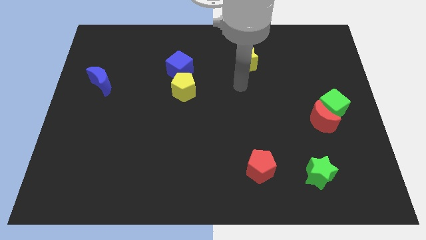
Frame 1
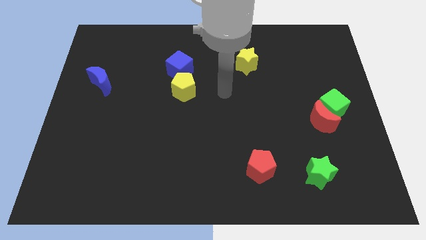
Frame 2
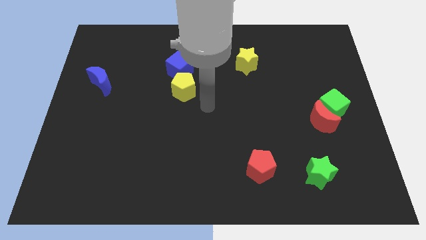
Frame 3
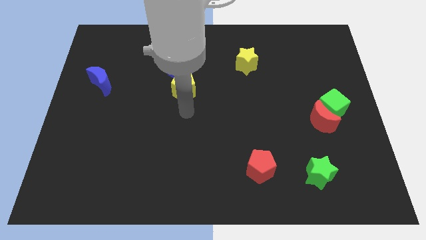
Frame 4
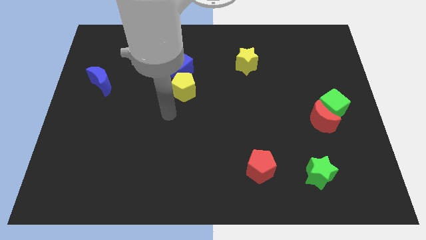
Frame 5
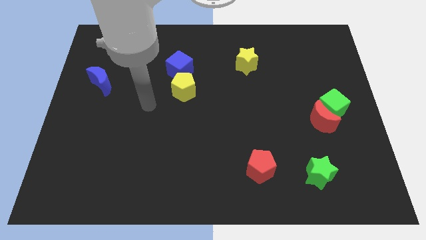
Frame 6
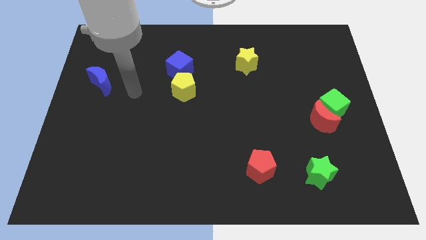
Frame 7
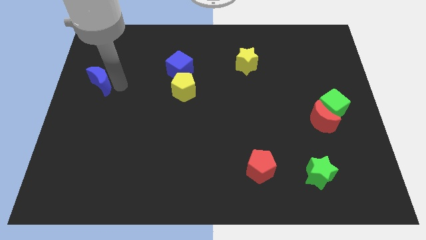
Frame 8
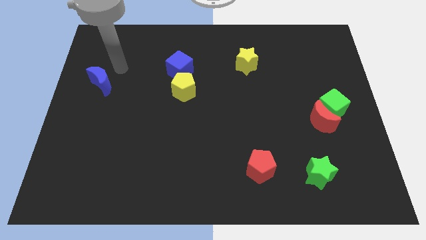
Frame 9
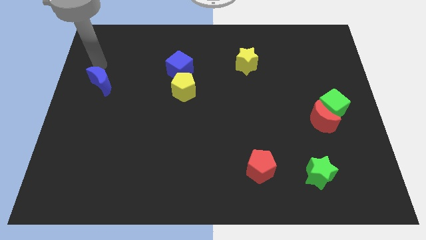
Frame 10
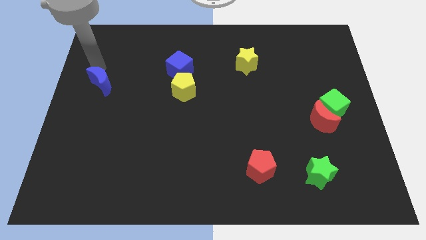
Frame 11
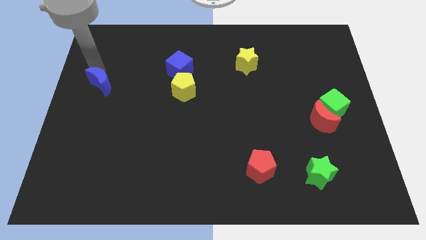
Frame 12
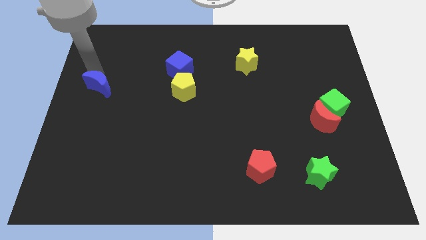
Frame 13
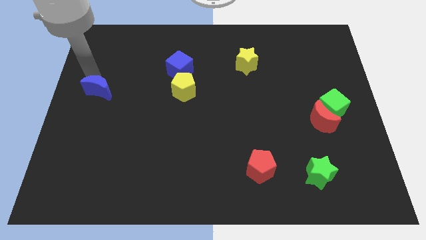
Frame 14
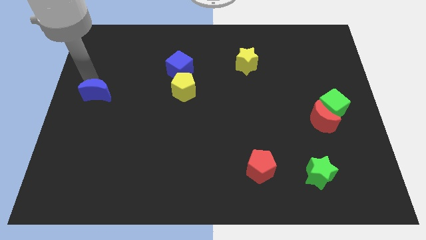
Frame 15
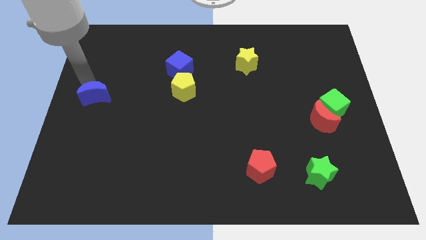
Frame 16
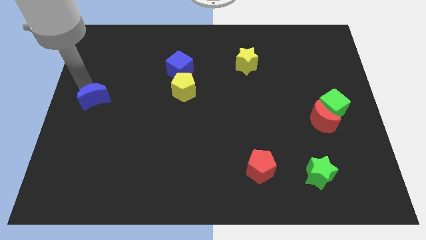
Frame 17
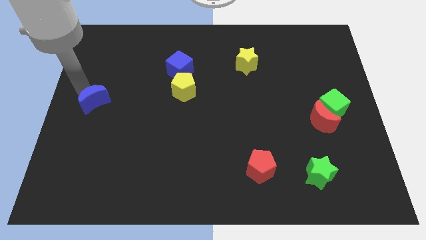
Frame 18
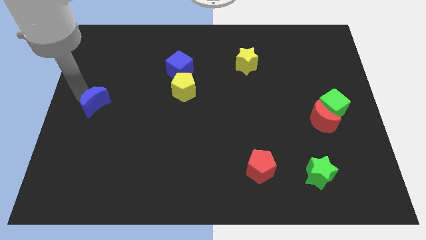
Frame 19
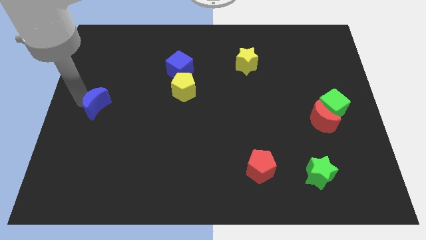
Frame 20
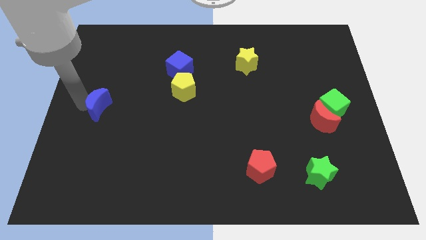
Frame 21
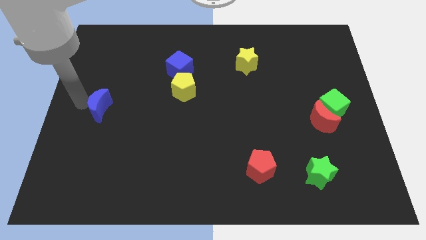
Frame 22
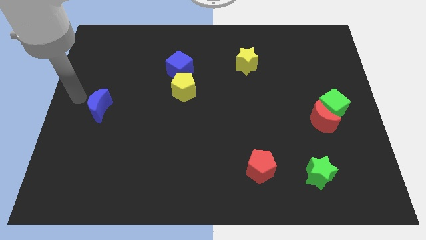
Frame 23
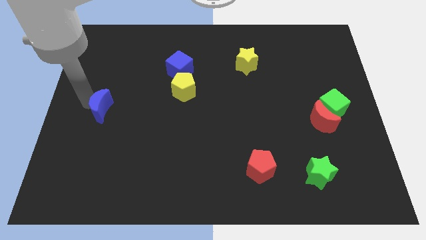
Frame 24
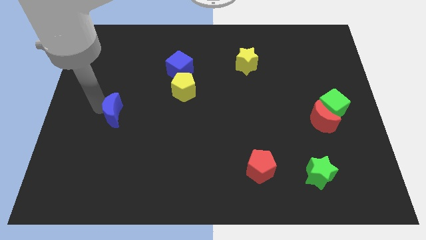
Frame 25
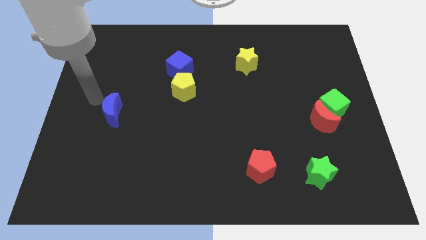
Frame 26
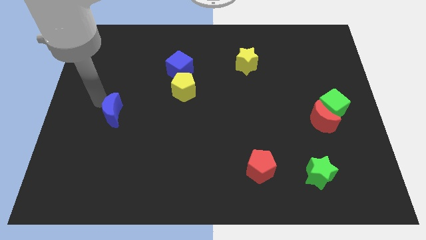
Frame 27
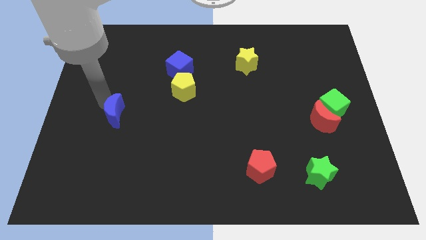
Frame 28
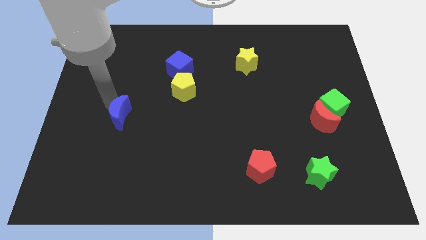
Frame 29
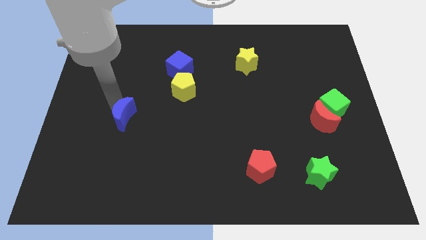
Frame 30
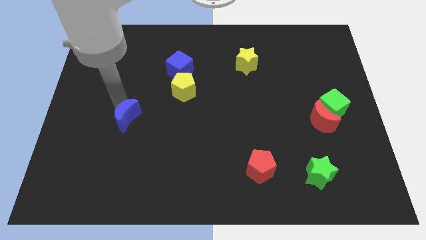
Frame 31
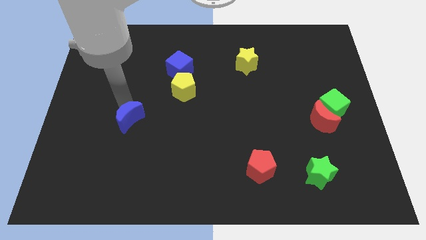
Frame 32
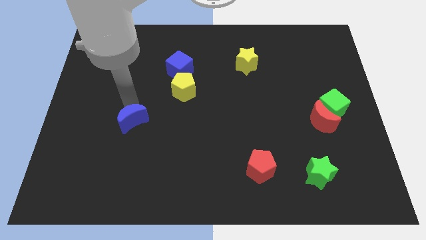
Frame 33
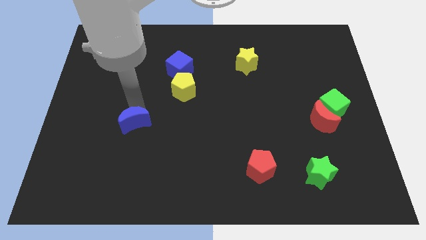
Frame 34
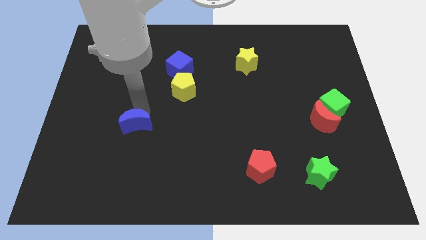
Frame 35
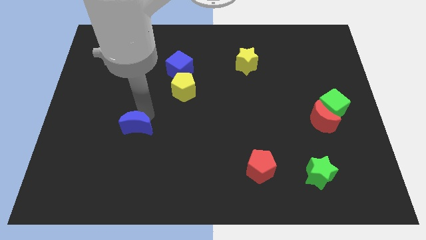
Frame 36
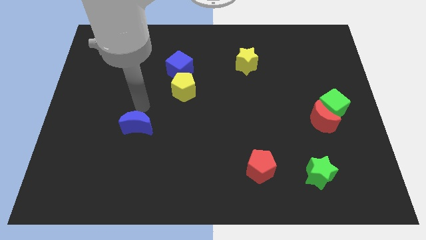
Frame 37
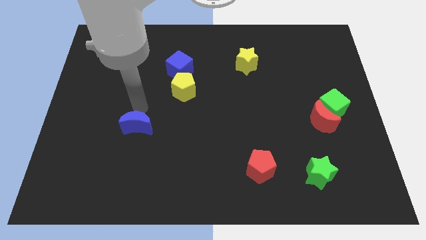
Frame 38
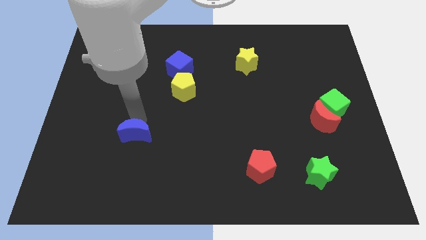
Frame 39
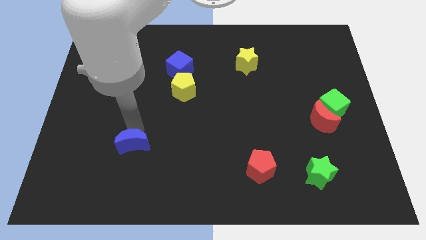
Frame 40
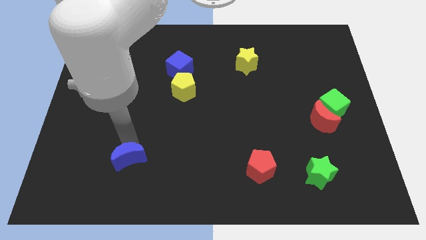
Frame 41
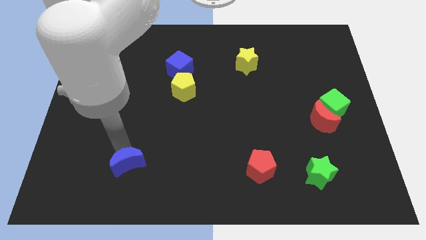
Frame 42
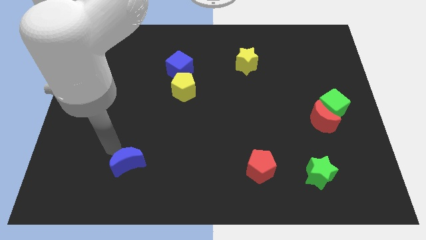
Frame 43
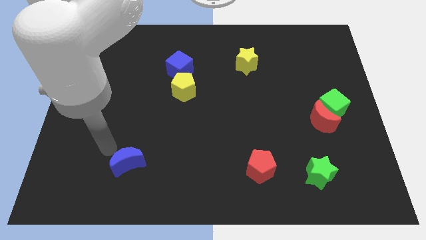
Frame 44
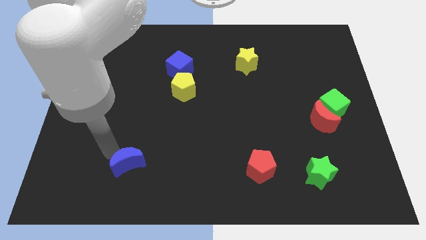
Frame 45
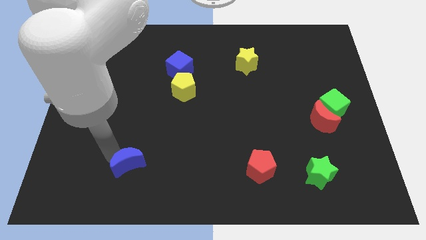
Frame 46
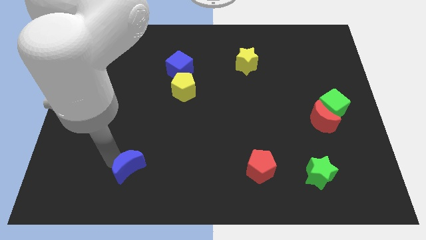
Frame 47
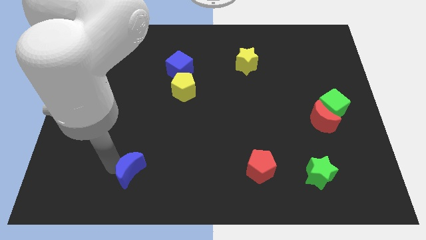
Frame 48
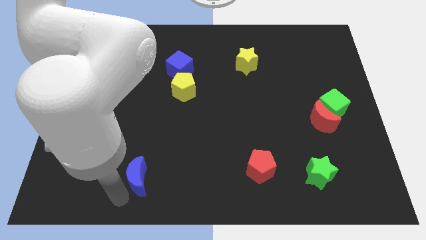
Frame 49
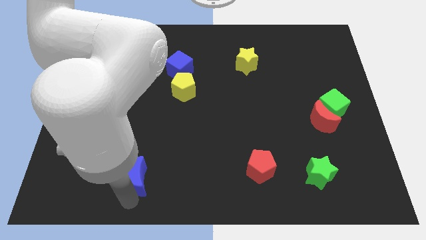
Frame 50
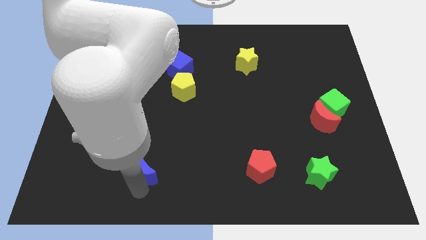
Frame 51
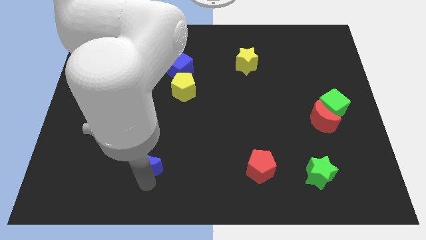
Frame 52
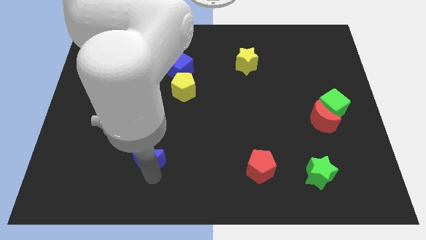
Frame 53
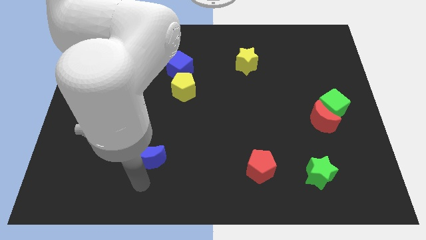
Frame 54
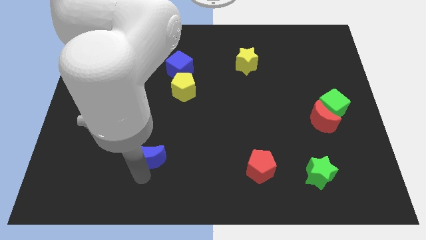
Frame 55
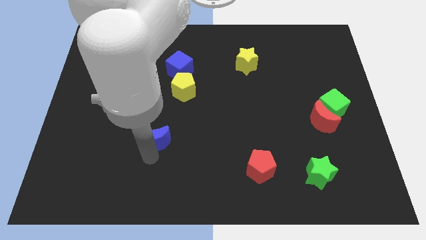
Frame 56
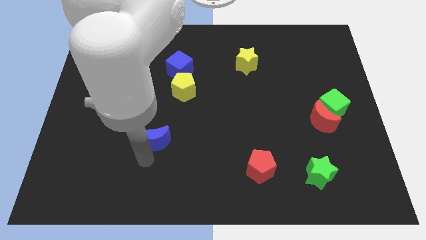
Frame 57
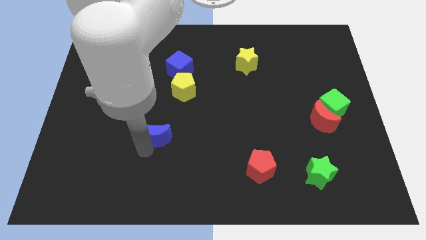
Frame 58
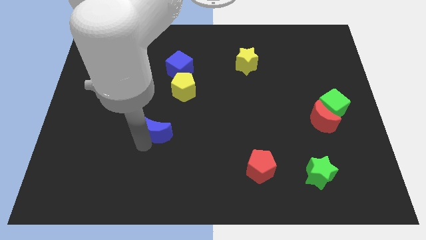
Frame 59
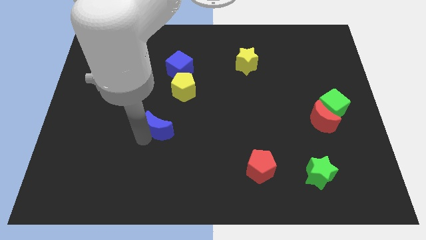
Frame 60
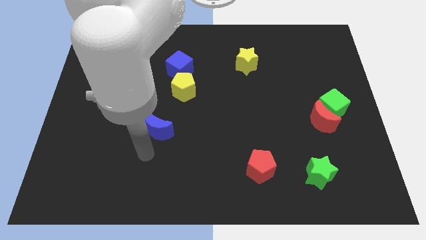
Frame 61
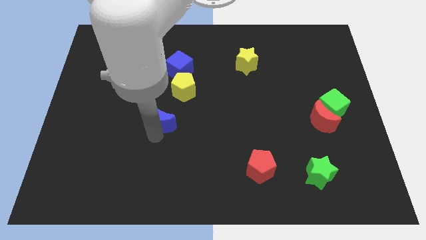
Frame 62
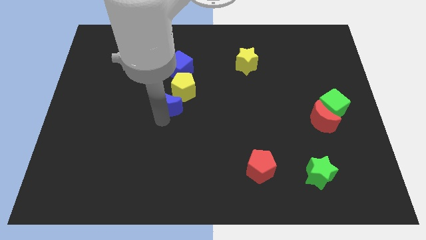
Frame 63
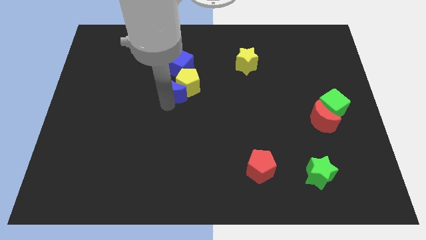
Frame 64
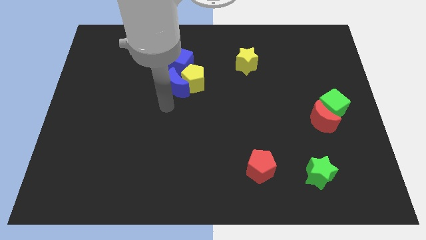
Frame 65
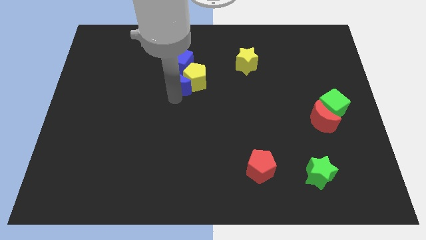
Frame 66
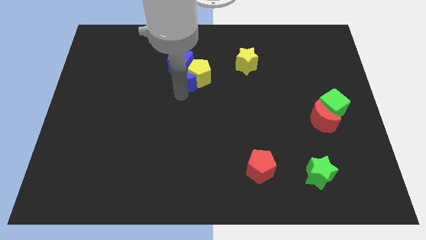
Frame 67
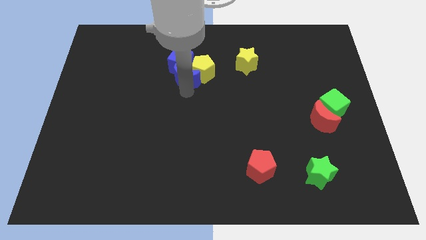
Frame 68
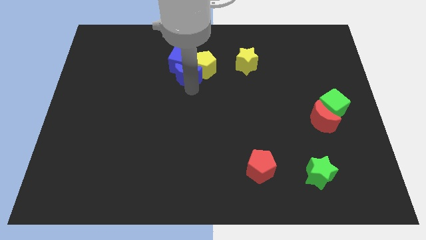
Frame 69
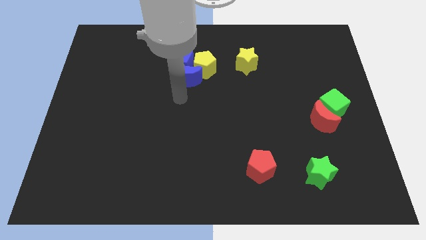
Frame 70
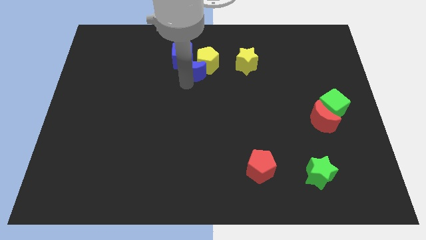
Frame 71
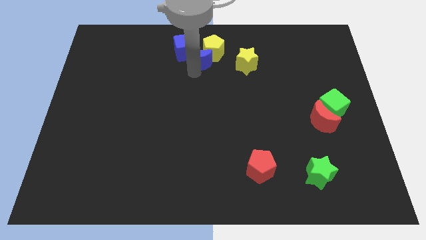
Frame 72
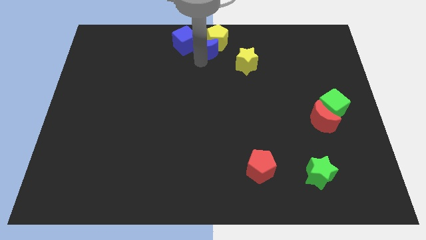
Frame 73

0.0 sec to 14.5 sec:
slide the blue moon to the towards your base
